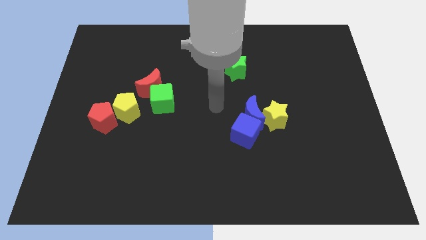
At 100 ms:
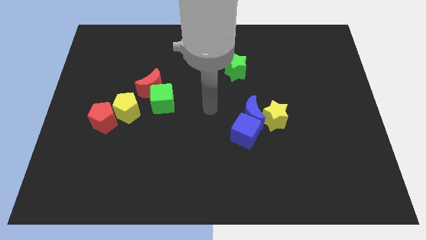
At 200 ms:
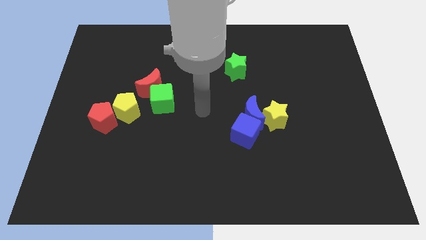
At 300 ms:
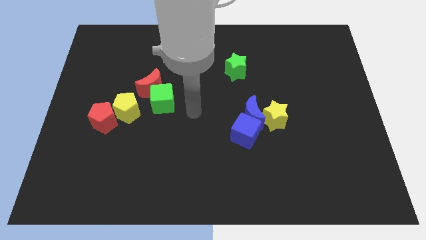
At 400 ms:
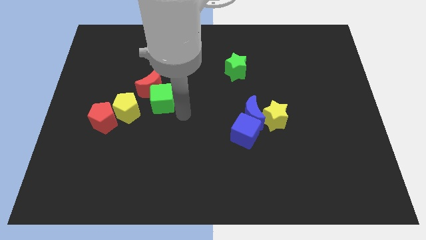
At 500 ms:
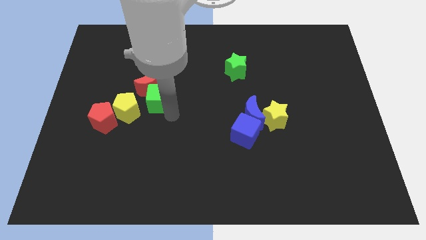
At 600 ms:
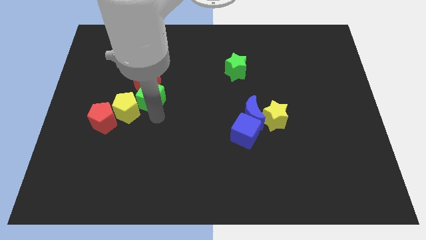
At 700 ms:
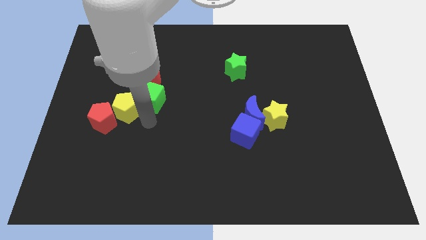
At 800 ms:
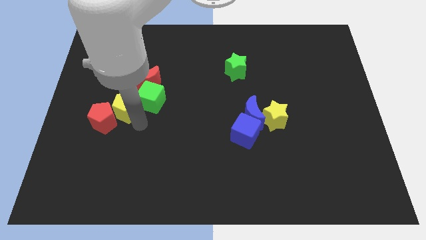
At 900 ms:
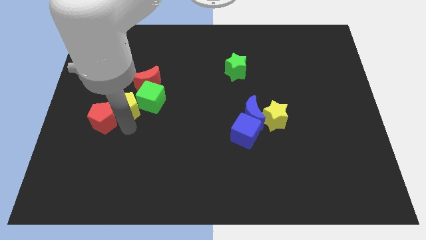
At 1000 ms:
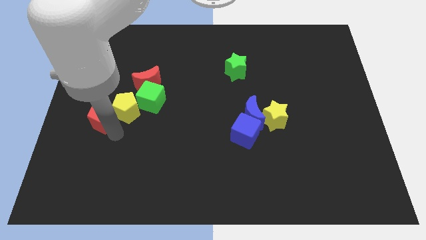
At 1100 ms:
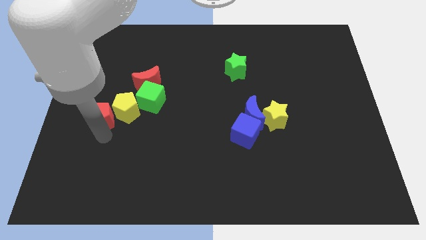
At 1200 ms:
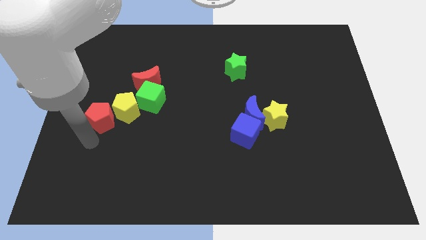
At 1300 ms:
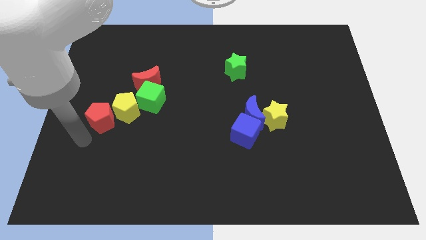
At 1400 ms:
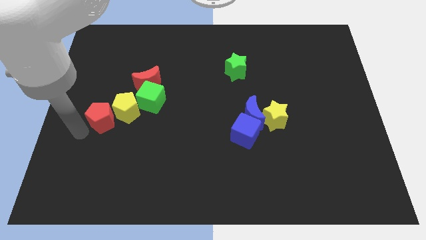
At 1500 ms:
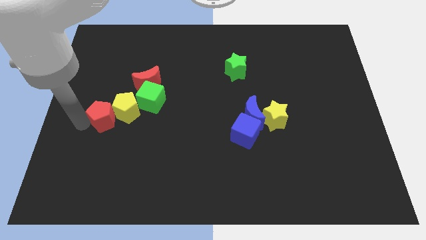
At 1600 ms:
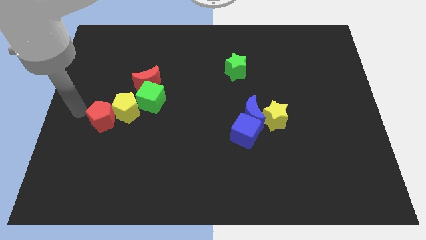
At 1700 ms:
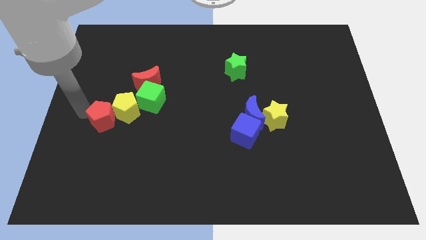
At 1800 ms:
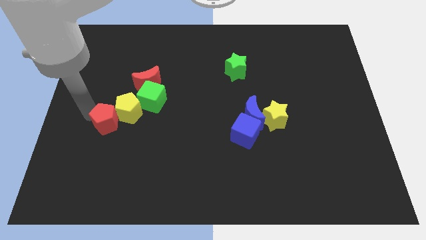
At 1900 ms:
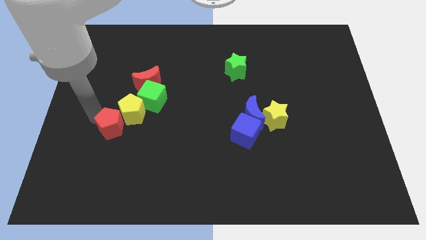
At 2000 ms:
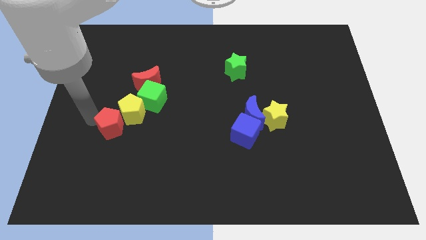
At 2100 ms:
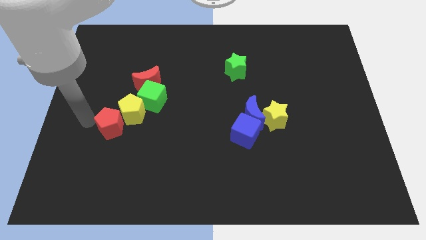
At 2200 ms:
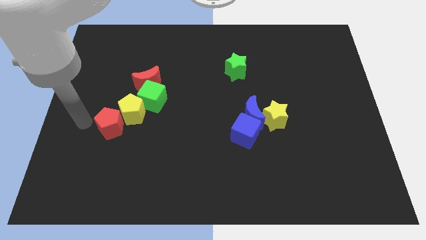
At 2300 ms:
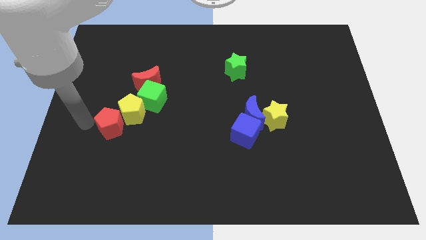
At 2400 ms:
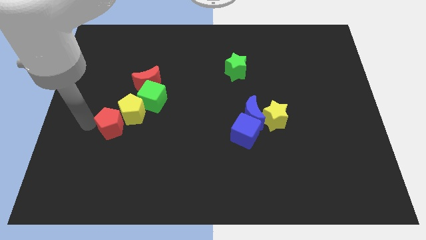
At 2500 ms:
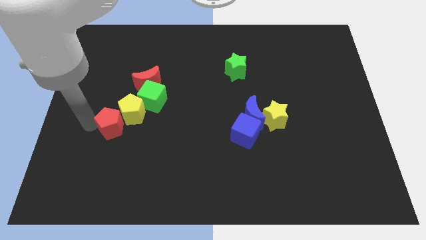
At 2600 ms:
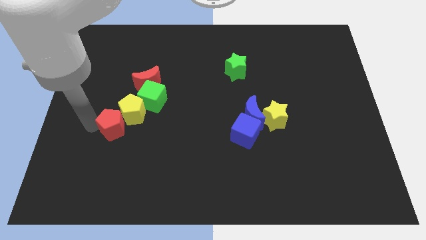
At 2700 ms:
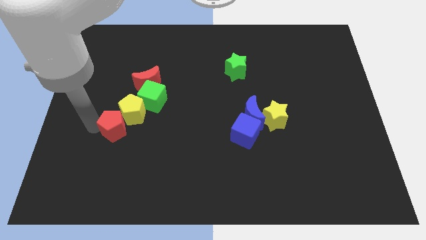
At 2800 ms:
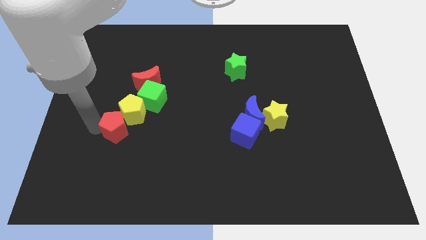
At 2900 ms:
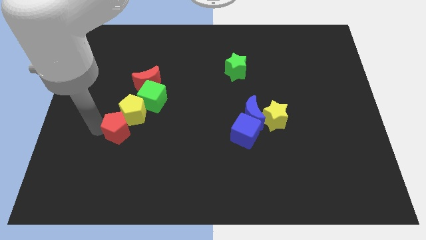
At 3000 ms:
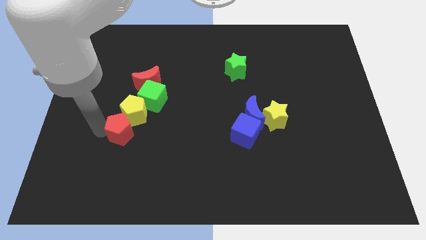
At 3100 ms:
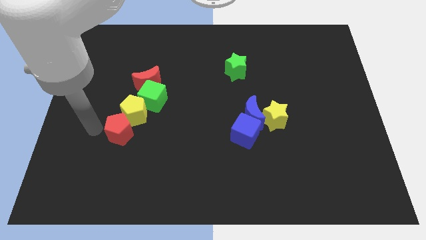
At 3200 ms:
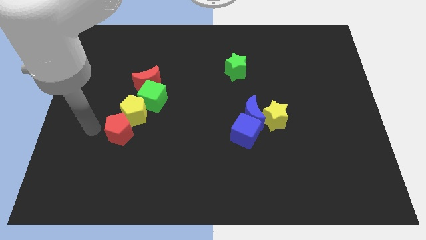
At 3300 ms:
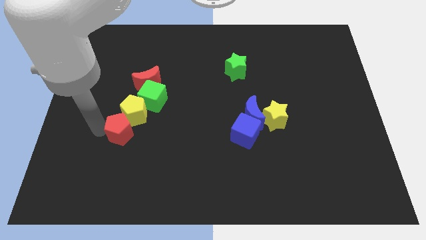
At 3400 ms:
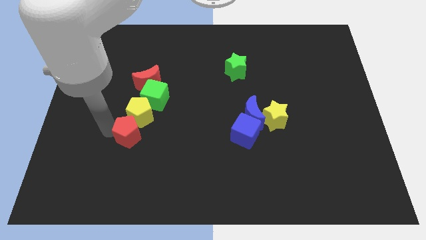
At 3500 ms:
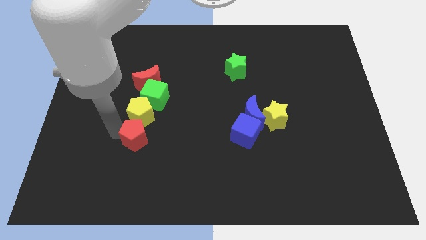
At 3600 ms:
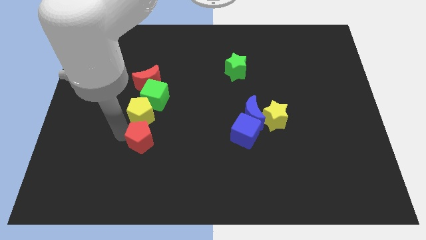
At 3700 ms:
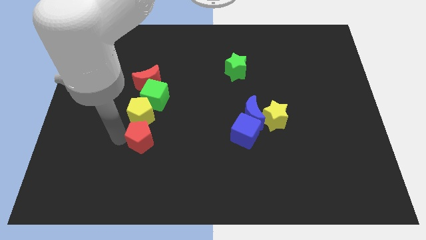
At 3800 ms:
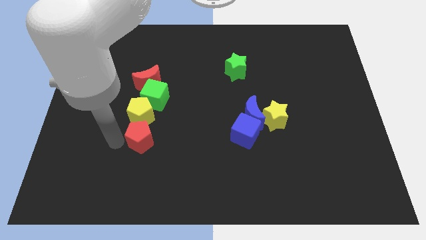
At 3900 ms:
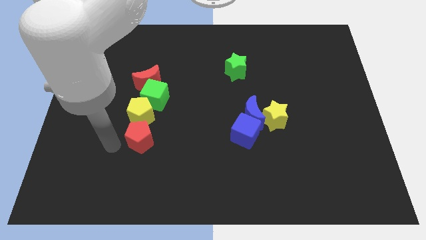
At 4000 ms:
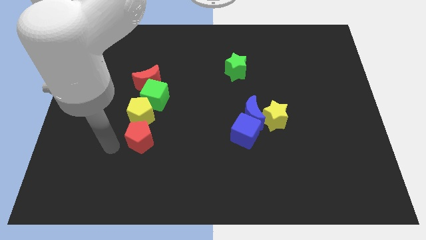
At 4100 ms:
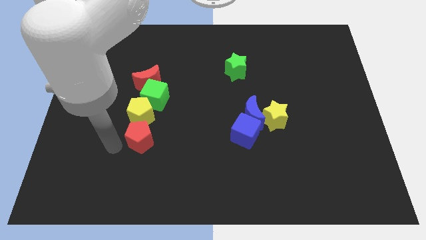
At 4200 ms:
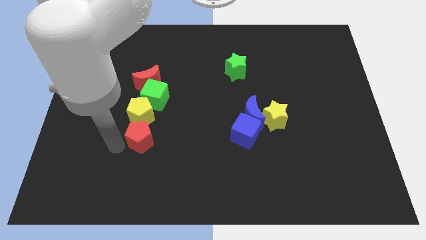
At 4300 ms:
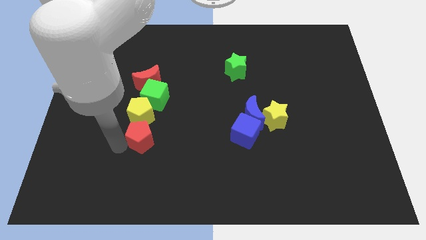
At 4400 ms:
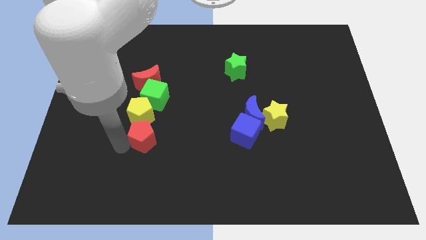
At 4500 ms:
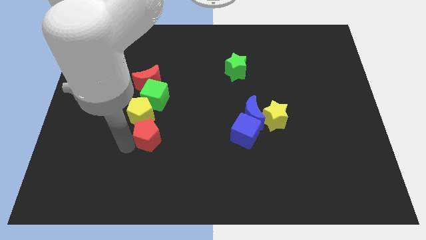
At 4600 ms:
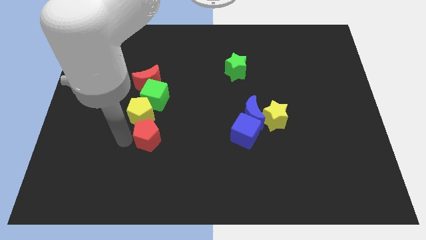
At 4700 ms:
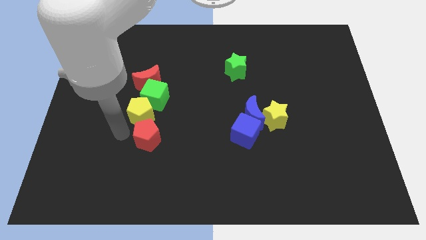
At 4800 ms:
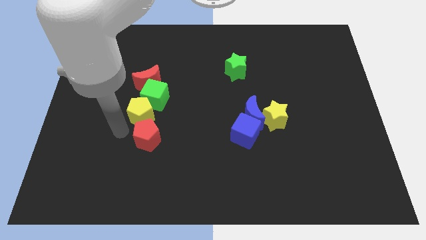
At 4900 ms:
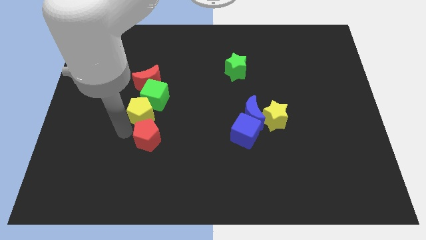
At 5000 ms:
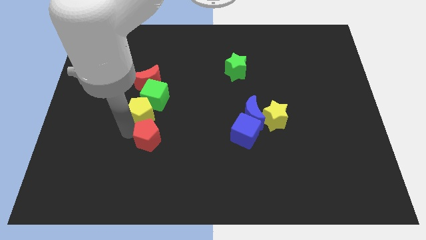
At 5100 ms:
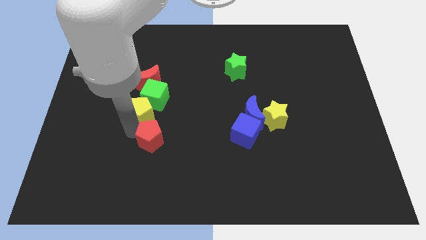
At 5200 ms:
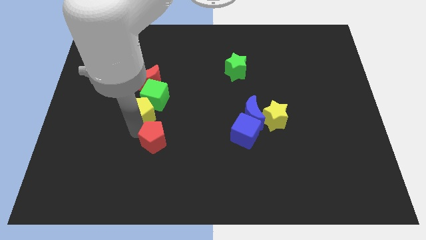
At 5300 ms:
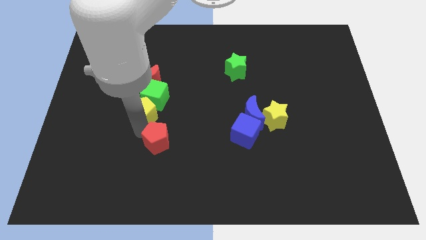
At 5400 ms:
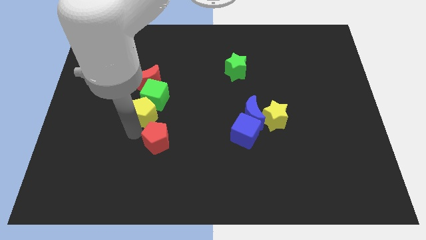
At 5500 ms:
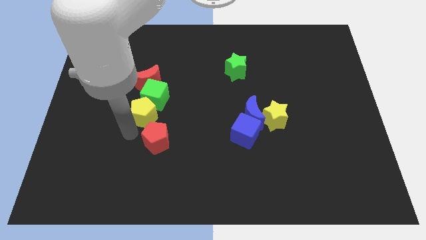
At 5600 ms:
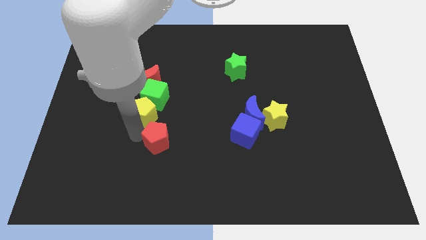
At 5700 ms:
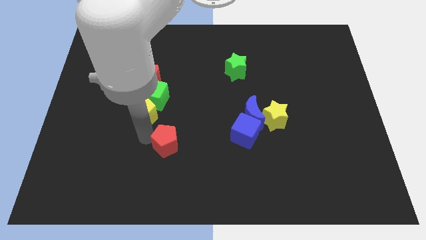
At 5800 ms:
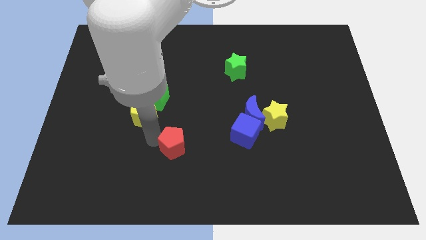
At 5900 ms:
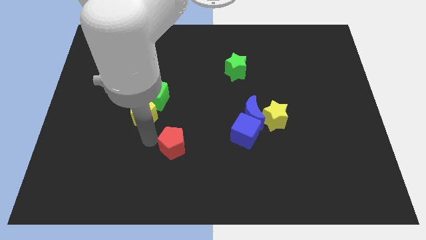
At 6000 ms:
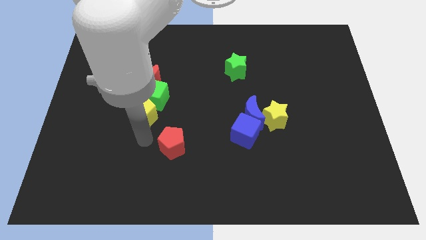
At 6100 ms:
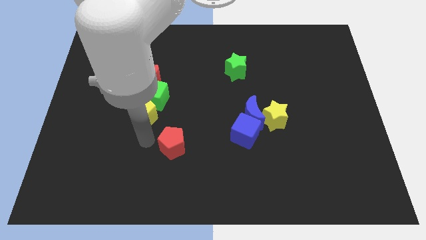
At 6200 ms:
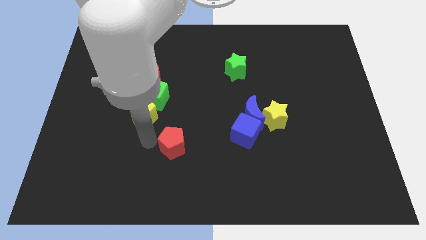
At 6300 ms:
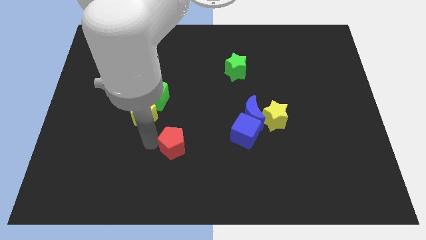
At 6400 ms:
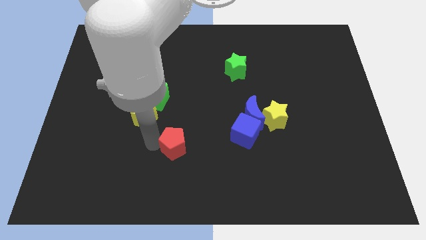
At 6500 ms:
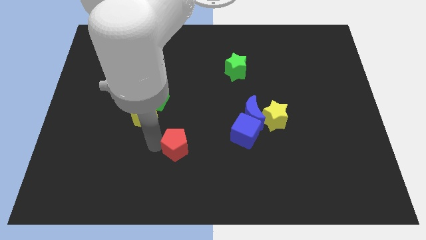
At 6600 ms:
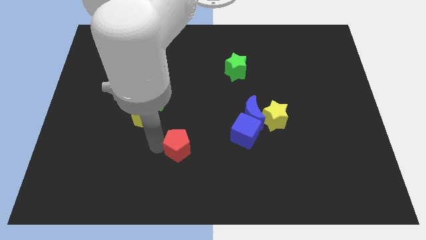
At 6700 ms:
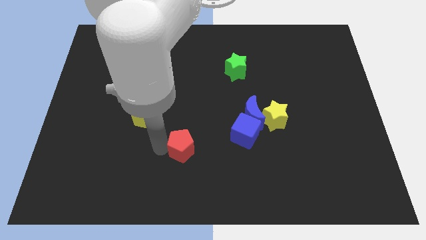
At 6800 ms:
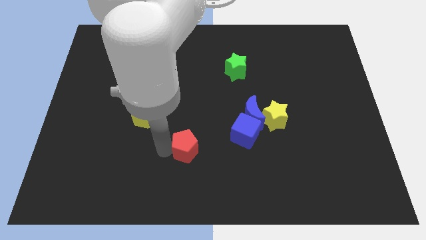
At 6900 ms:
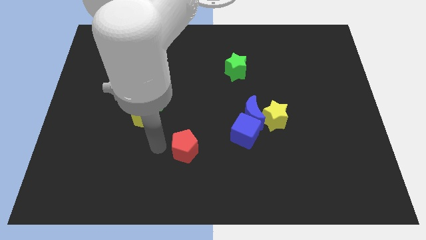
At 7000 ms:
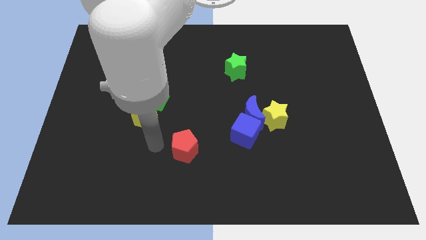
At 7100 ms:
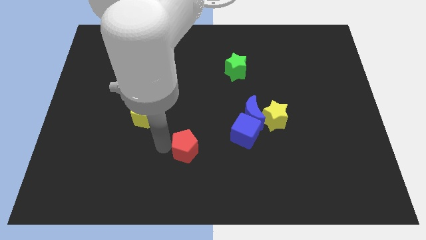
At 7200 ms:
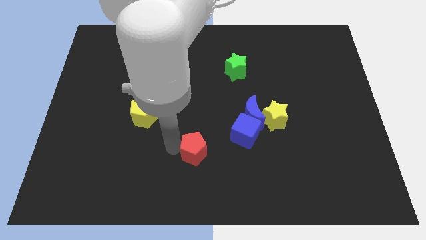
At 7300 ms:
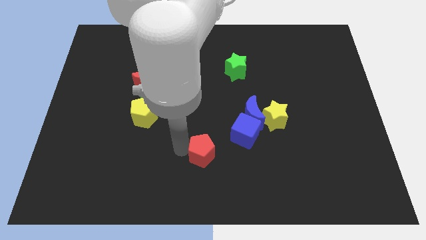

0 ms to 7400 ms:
move the red pentagon diagonally down and to the left of the blue cube
